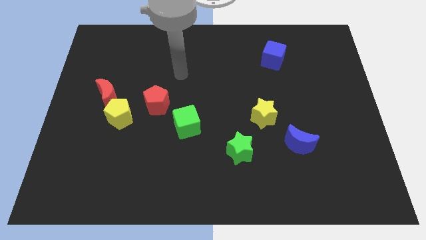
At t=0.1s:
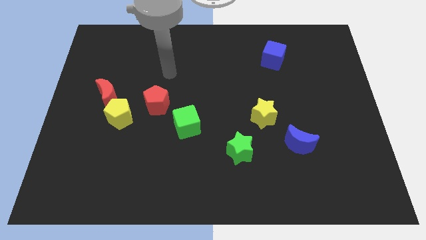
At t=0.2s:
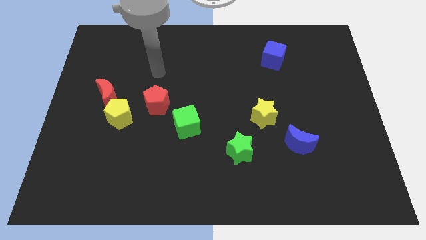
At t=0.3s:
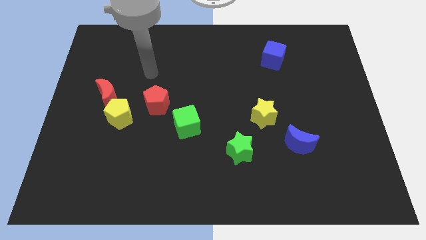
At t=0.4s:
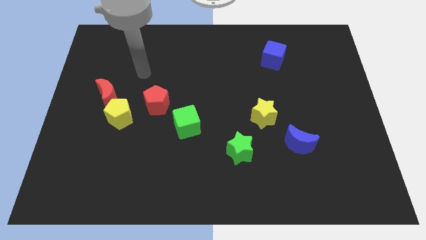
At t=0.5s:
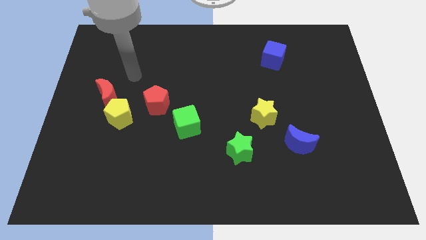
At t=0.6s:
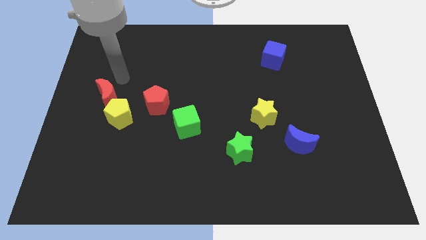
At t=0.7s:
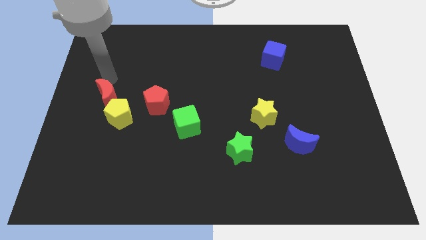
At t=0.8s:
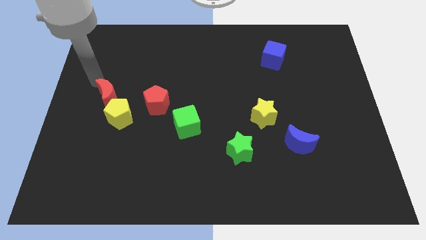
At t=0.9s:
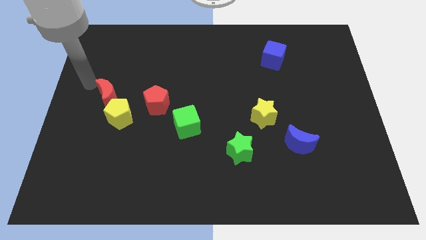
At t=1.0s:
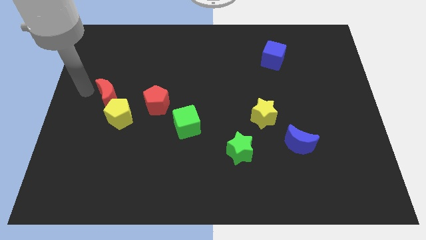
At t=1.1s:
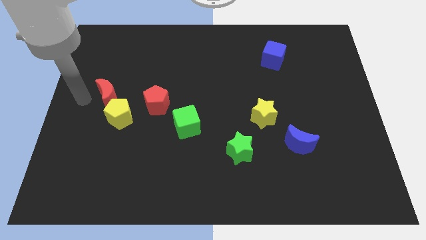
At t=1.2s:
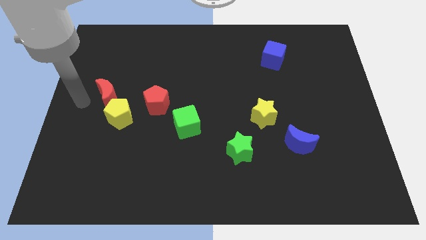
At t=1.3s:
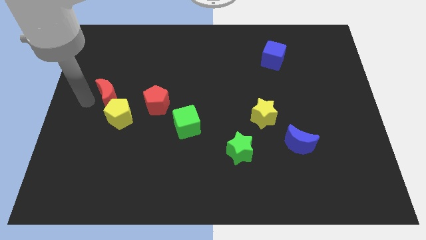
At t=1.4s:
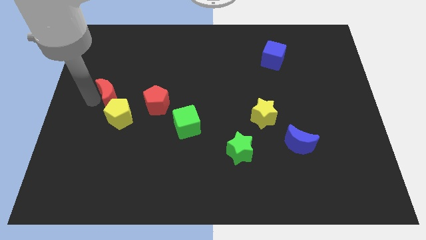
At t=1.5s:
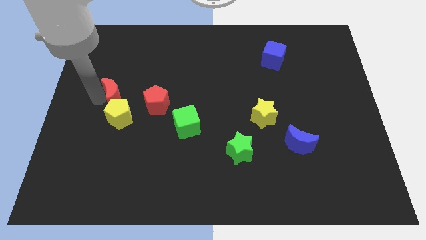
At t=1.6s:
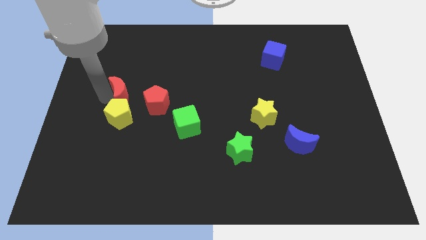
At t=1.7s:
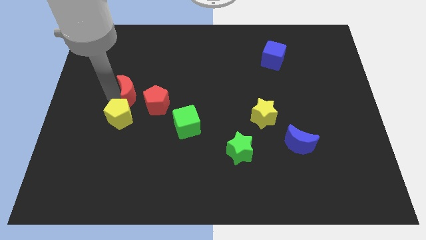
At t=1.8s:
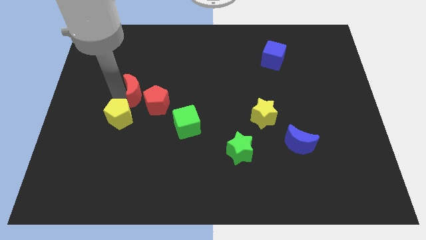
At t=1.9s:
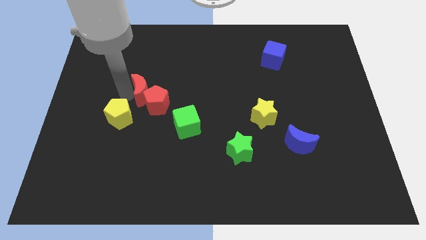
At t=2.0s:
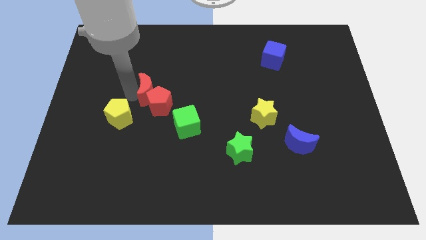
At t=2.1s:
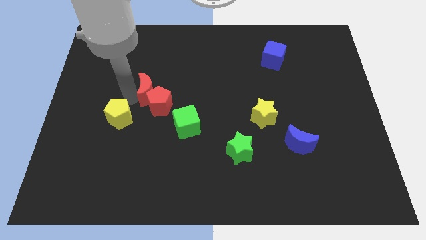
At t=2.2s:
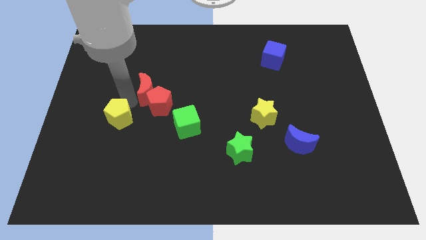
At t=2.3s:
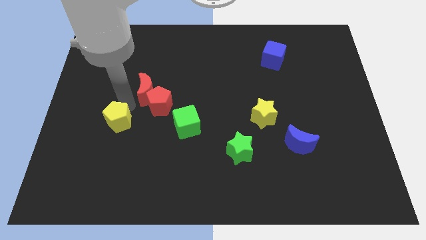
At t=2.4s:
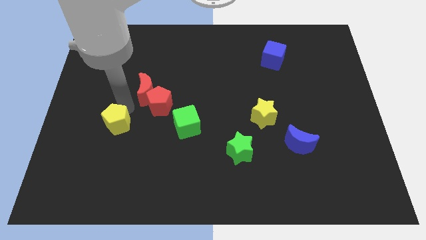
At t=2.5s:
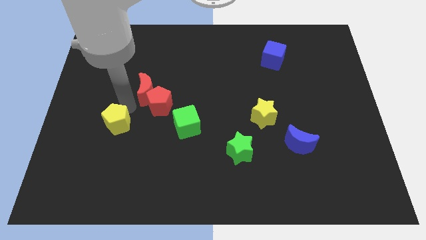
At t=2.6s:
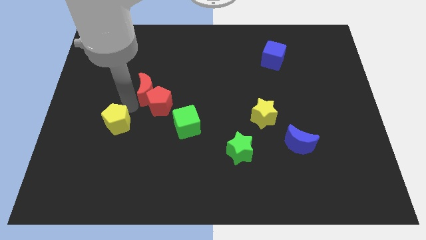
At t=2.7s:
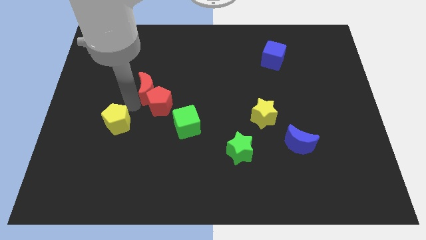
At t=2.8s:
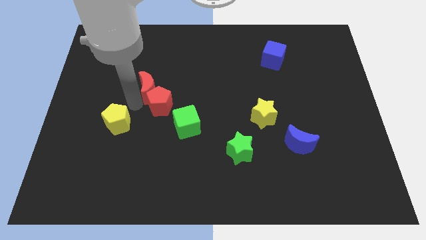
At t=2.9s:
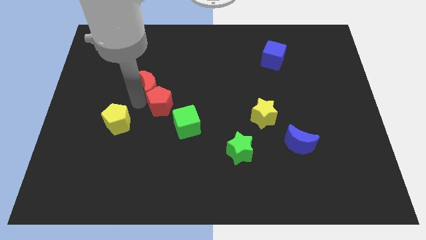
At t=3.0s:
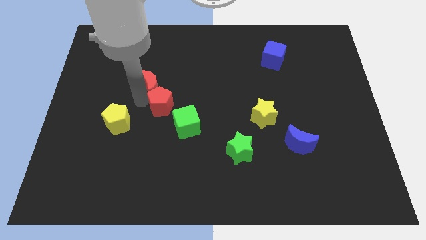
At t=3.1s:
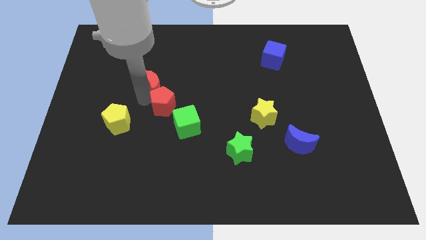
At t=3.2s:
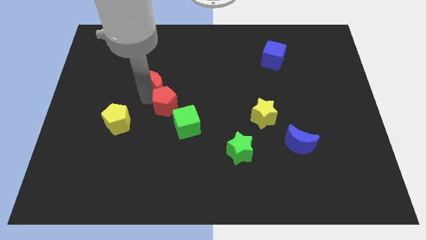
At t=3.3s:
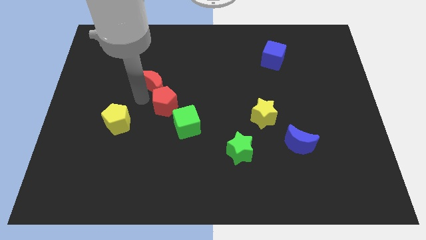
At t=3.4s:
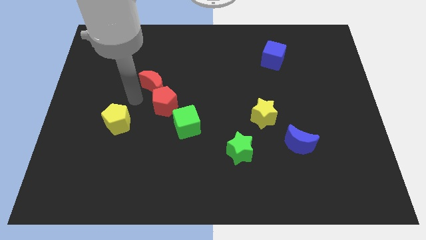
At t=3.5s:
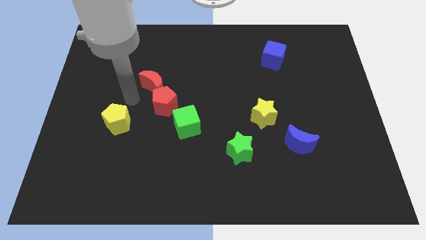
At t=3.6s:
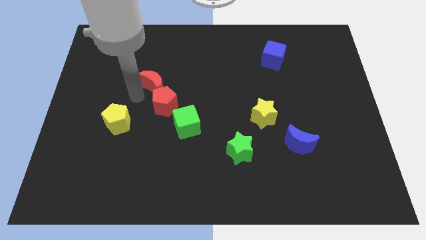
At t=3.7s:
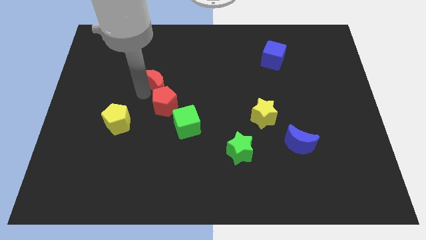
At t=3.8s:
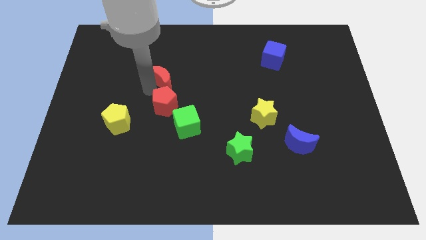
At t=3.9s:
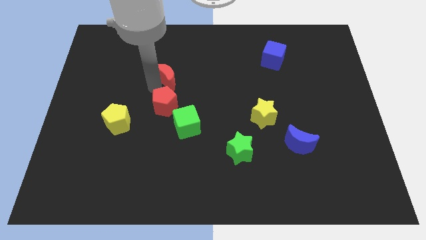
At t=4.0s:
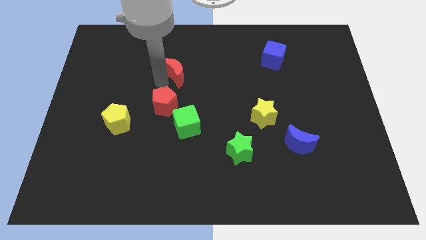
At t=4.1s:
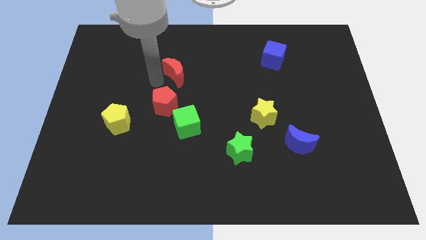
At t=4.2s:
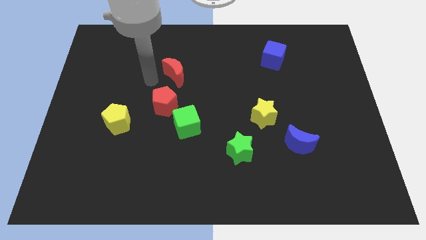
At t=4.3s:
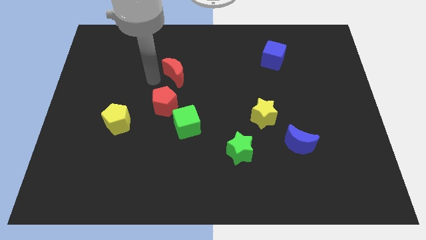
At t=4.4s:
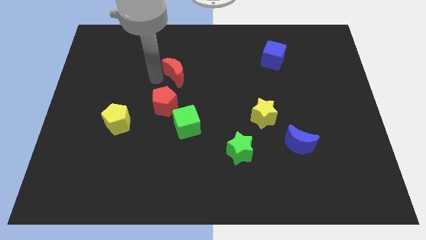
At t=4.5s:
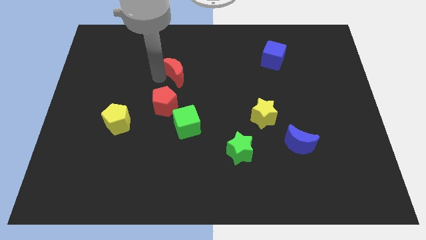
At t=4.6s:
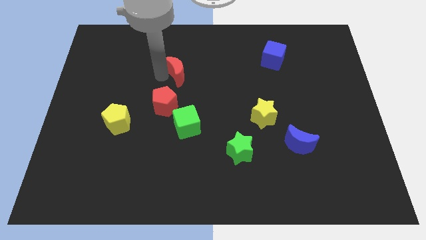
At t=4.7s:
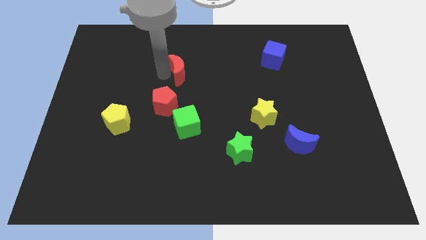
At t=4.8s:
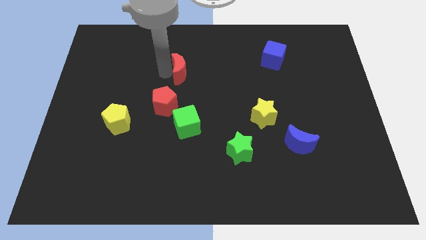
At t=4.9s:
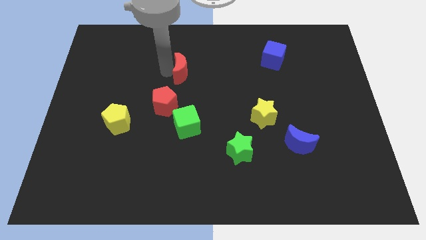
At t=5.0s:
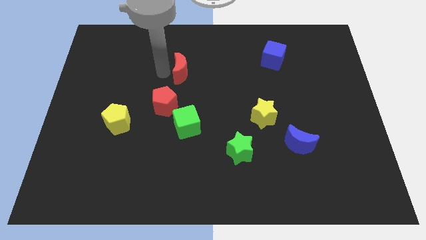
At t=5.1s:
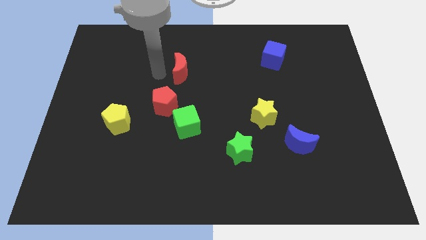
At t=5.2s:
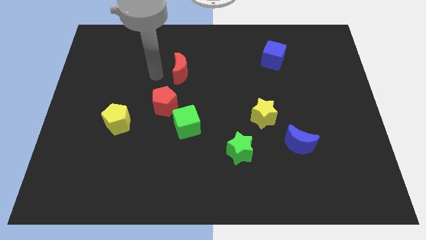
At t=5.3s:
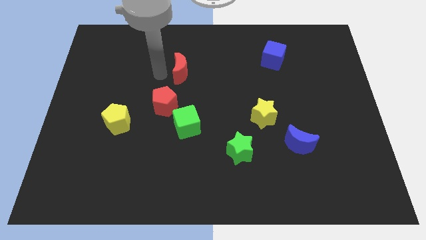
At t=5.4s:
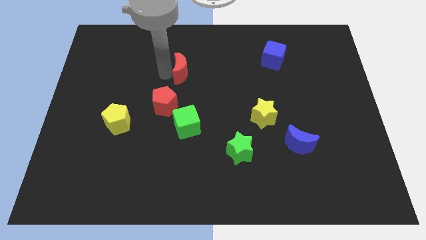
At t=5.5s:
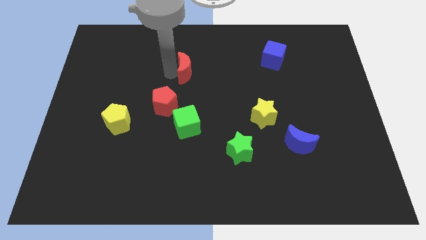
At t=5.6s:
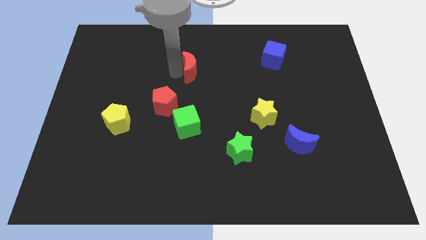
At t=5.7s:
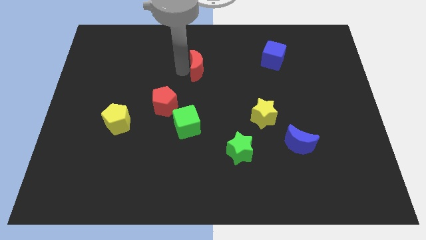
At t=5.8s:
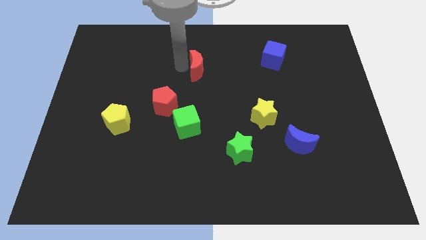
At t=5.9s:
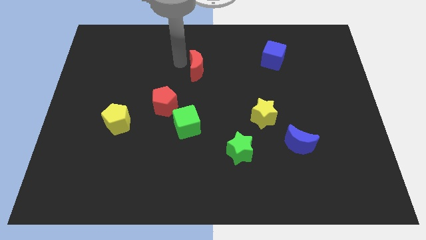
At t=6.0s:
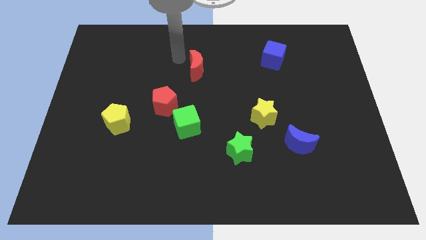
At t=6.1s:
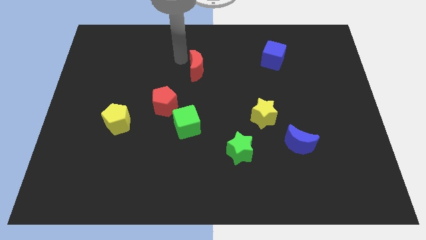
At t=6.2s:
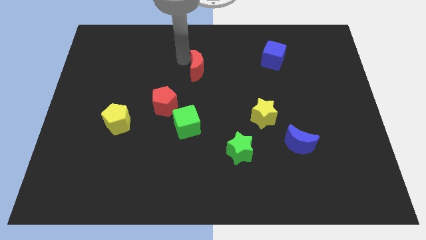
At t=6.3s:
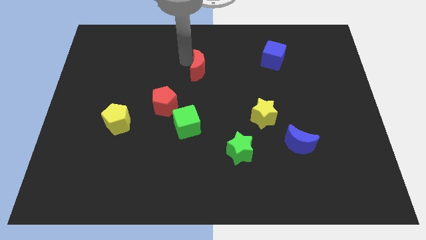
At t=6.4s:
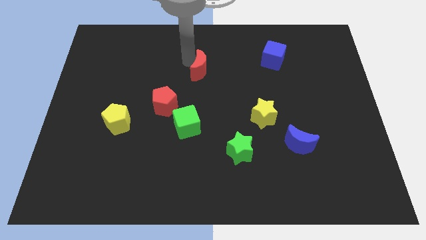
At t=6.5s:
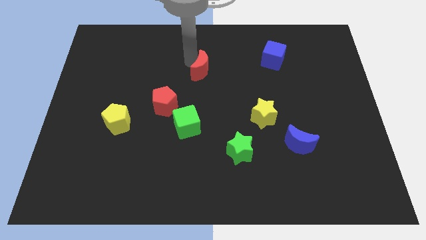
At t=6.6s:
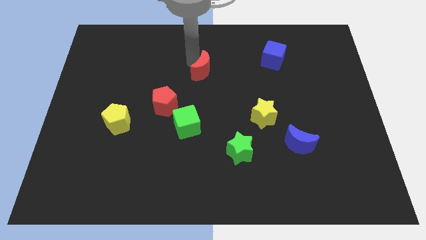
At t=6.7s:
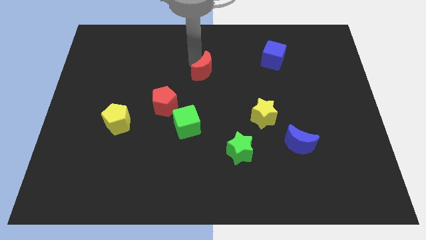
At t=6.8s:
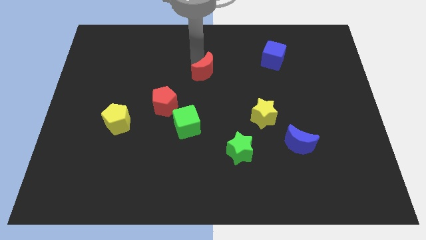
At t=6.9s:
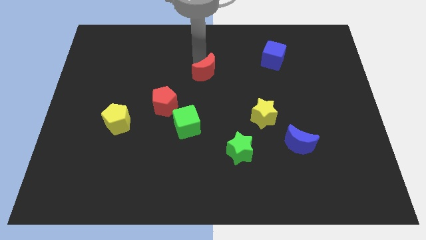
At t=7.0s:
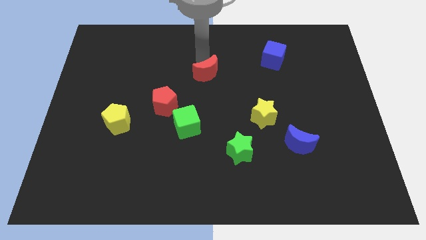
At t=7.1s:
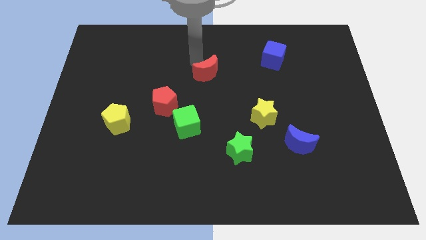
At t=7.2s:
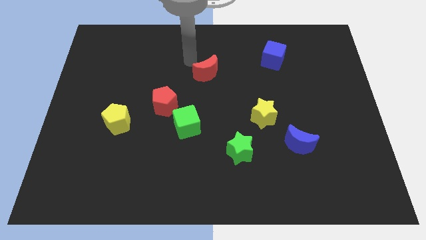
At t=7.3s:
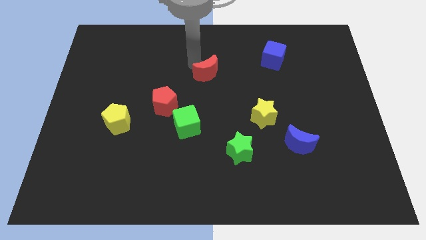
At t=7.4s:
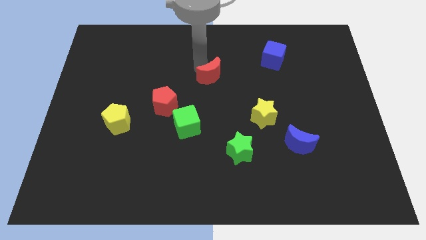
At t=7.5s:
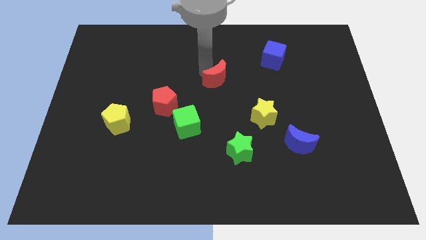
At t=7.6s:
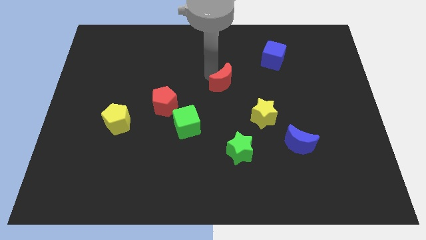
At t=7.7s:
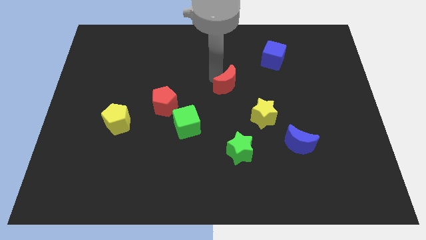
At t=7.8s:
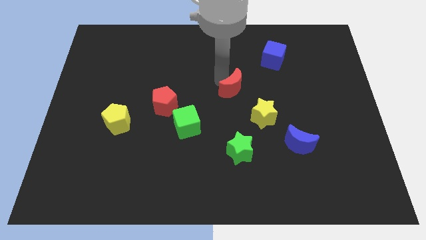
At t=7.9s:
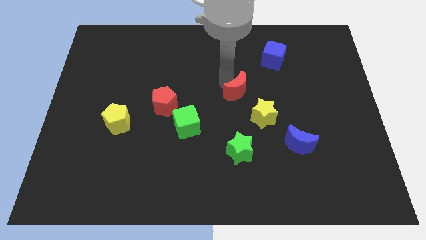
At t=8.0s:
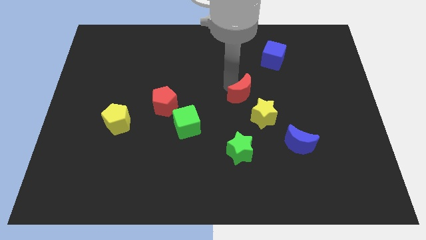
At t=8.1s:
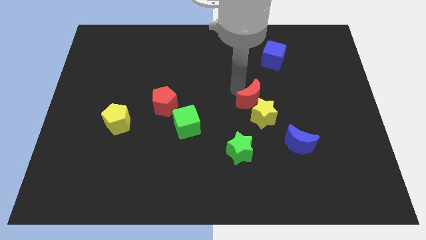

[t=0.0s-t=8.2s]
slide the red moon close to the yellow star
